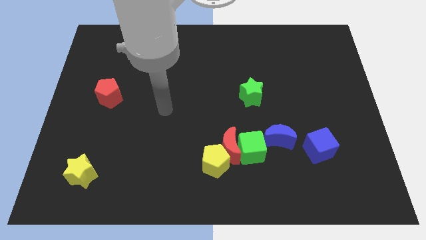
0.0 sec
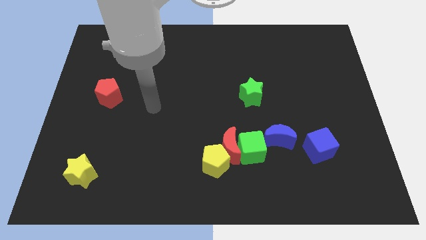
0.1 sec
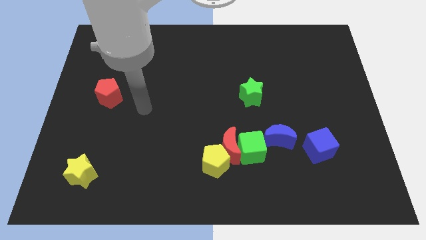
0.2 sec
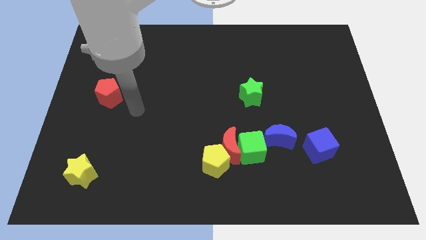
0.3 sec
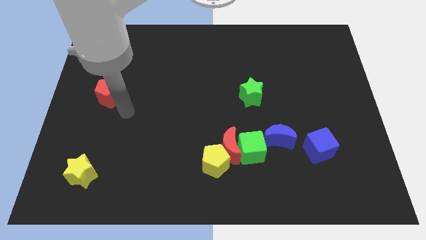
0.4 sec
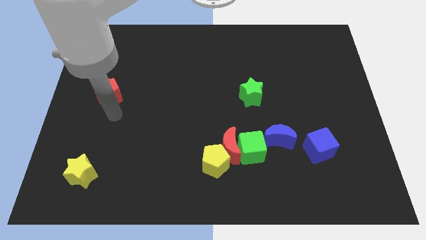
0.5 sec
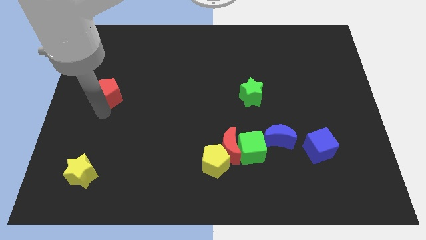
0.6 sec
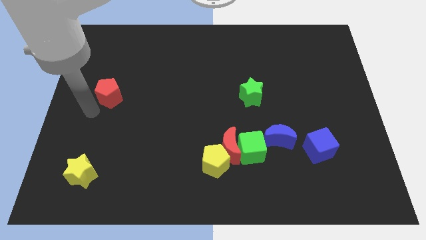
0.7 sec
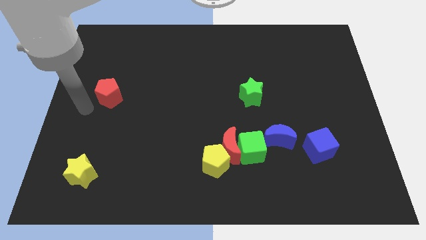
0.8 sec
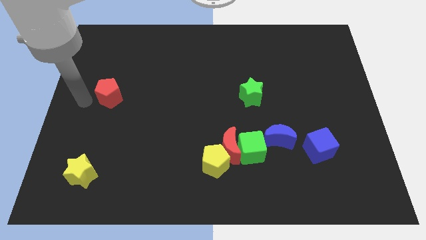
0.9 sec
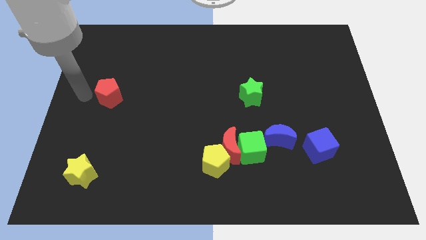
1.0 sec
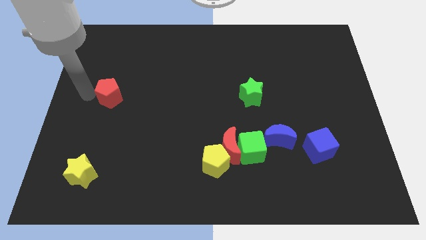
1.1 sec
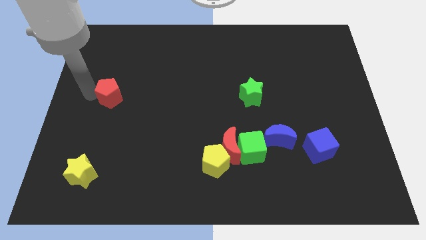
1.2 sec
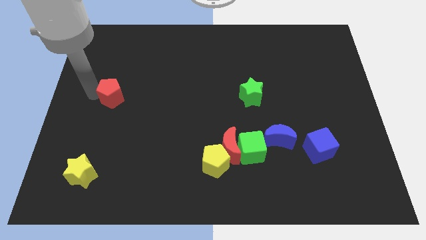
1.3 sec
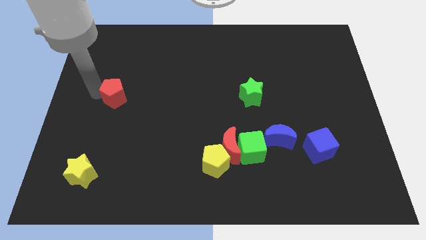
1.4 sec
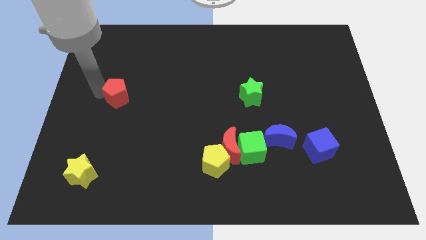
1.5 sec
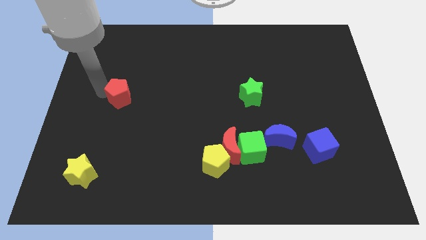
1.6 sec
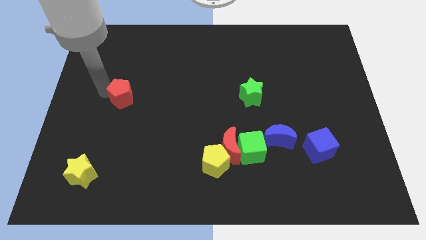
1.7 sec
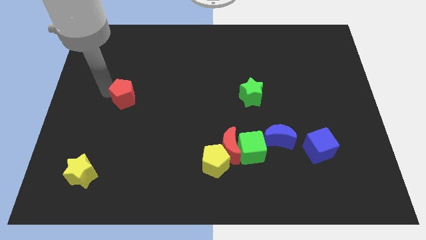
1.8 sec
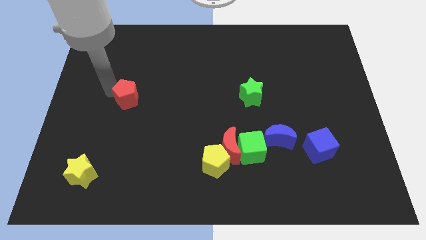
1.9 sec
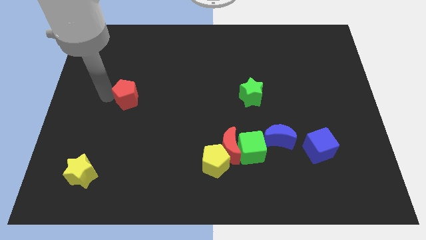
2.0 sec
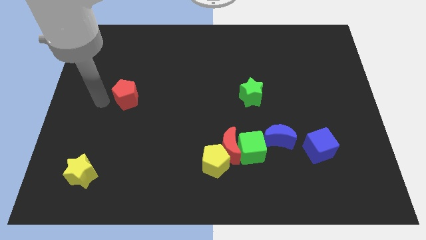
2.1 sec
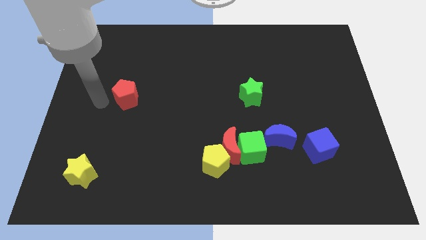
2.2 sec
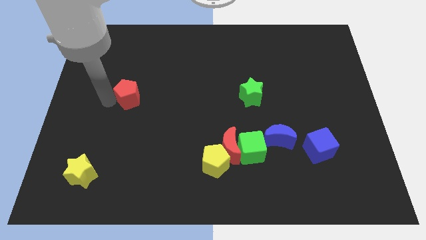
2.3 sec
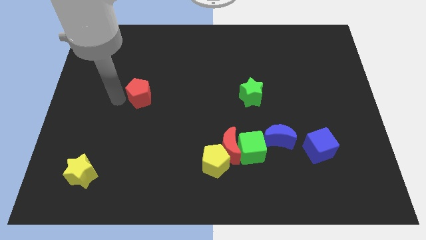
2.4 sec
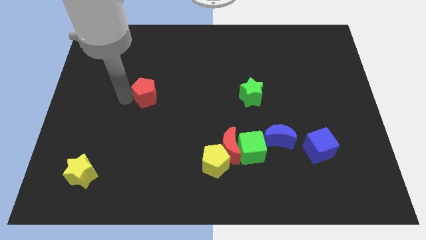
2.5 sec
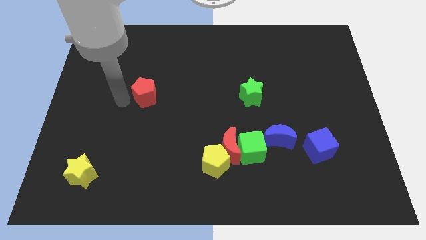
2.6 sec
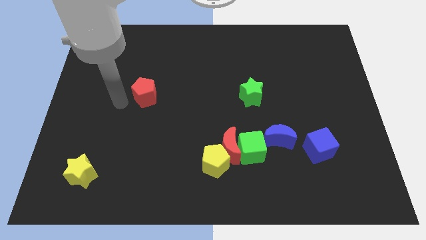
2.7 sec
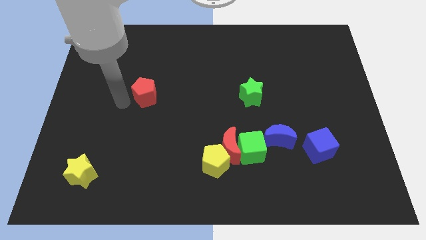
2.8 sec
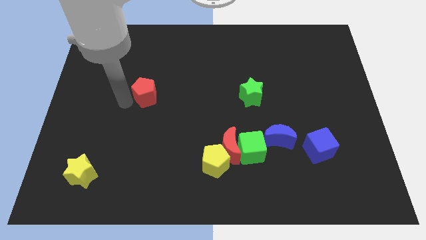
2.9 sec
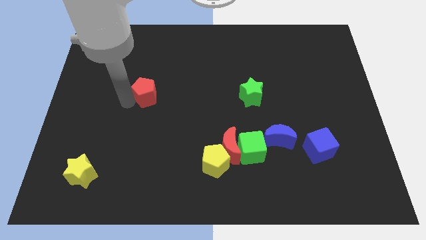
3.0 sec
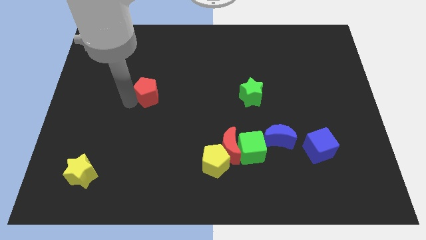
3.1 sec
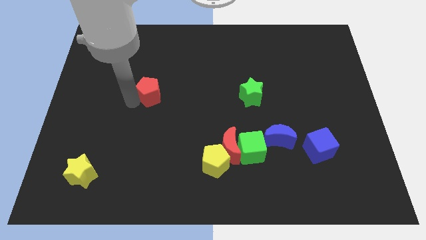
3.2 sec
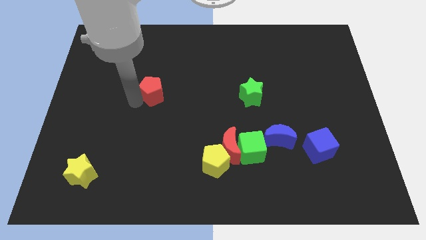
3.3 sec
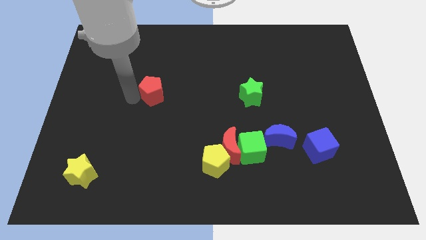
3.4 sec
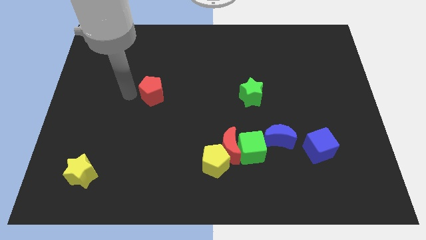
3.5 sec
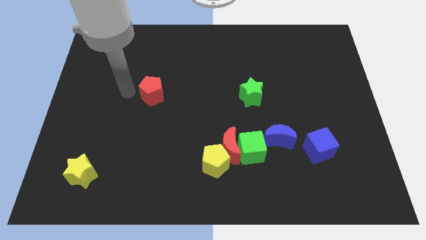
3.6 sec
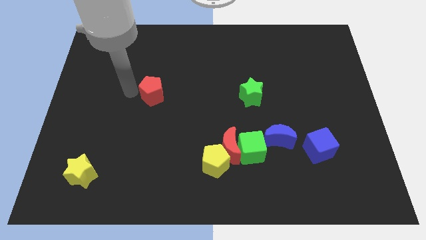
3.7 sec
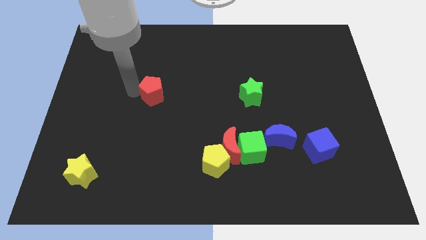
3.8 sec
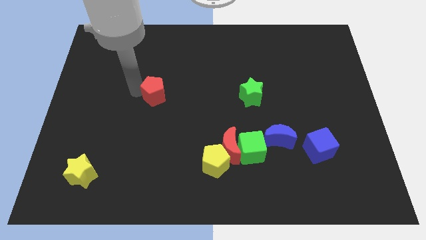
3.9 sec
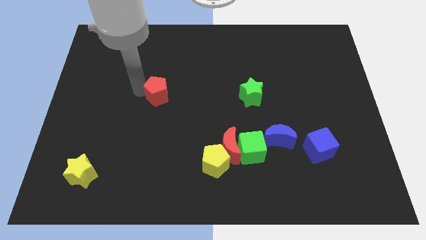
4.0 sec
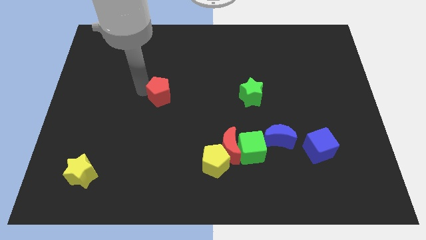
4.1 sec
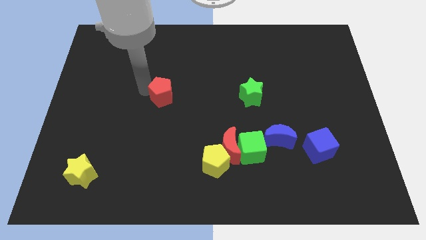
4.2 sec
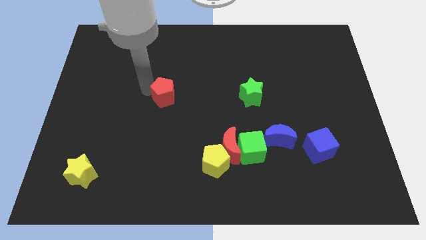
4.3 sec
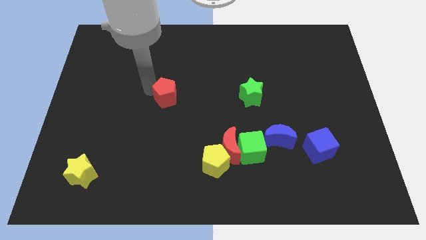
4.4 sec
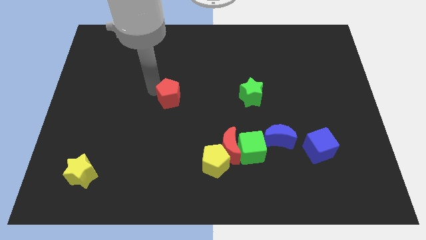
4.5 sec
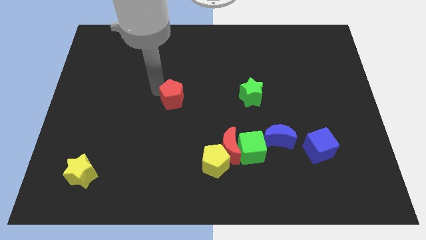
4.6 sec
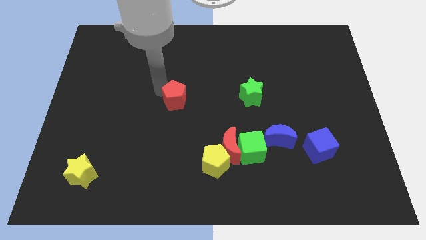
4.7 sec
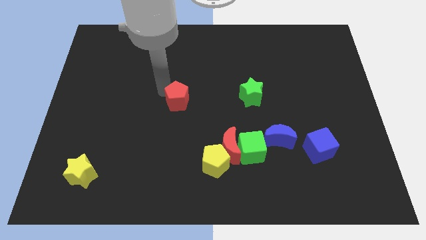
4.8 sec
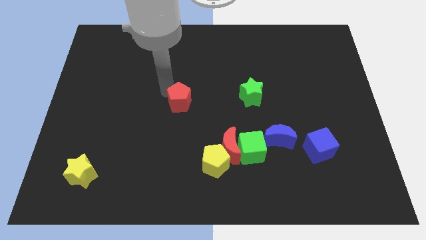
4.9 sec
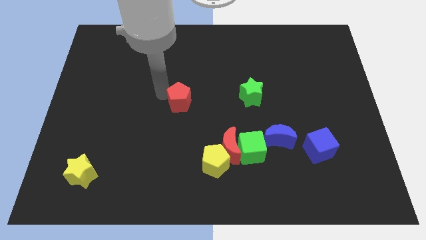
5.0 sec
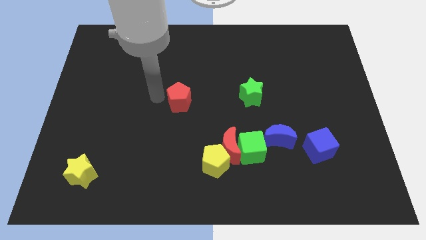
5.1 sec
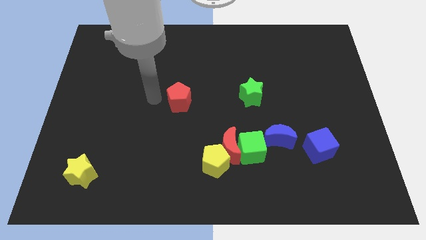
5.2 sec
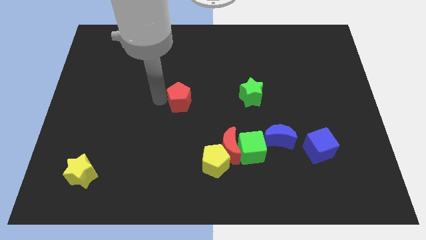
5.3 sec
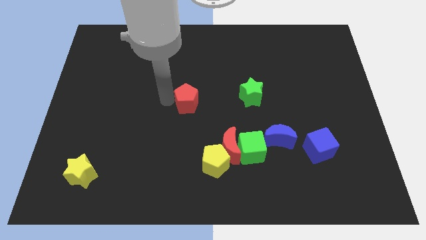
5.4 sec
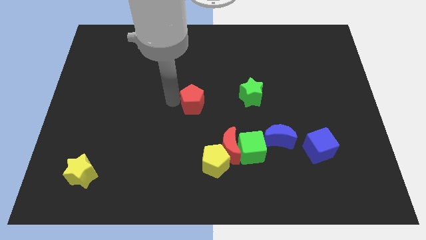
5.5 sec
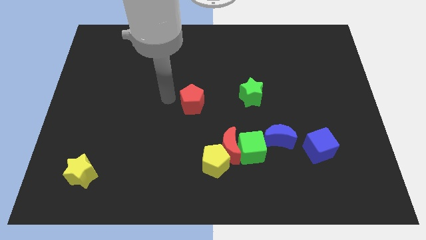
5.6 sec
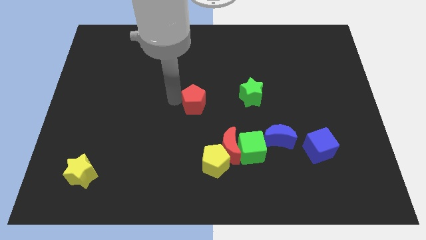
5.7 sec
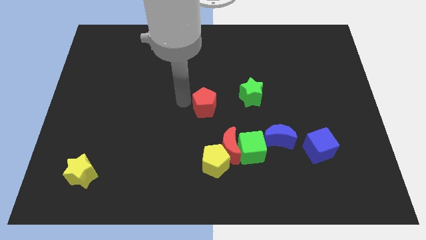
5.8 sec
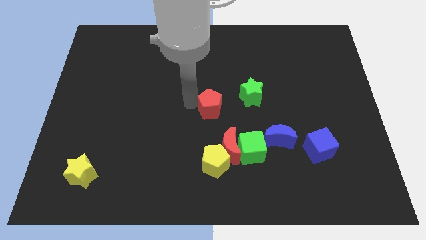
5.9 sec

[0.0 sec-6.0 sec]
slide the red pentagon to the top of the red moon

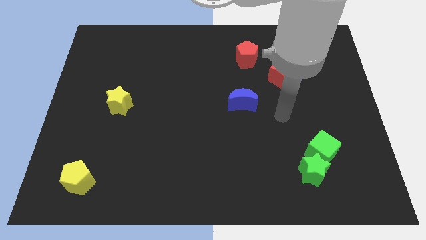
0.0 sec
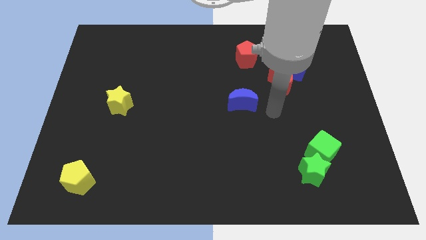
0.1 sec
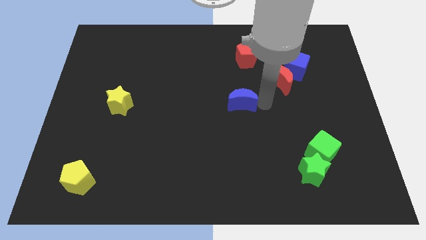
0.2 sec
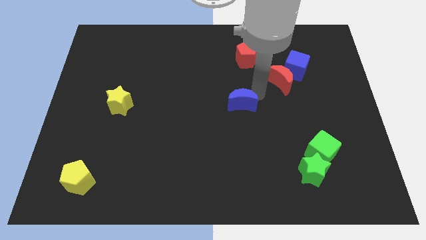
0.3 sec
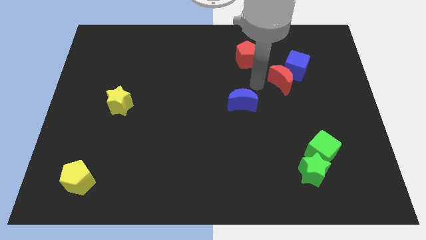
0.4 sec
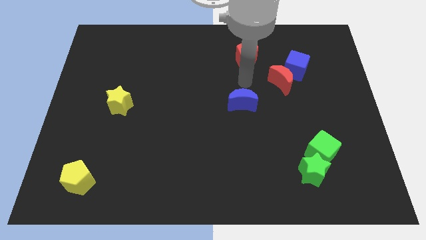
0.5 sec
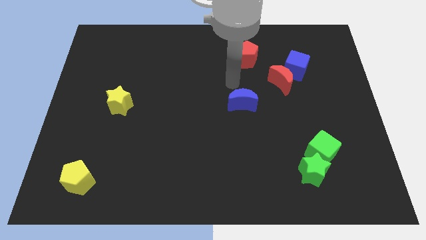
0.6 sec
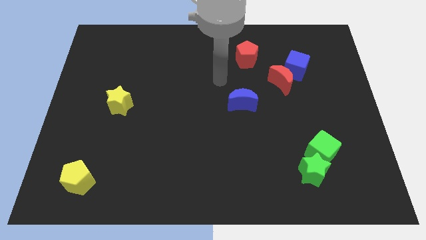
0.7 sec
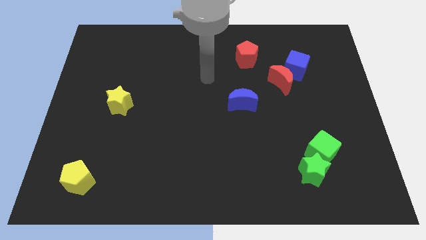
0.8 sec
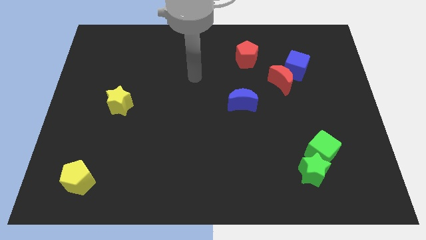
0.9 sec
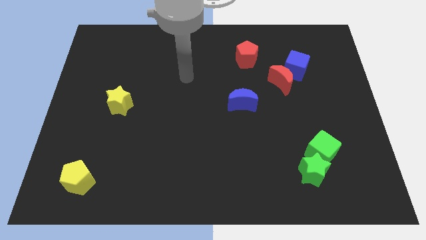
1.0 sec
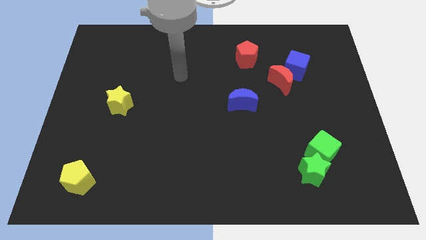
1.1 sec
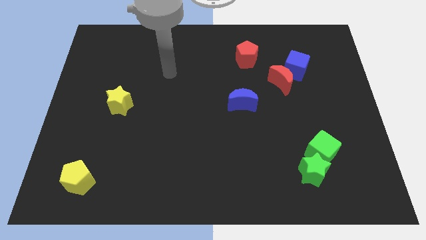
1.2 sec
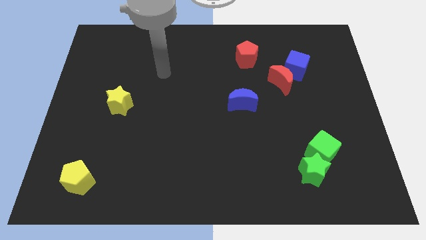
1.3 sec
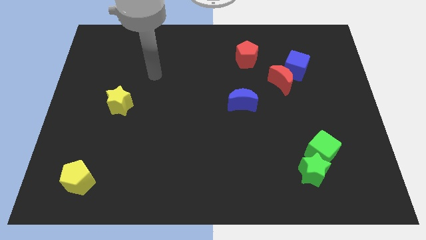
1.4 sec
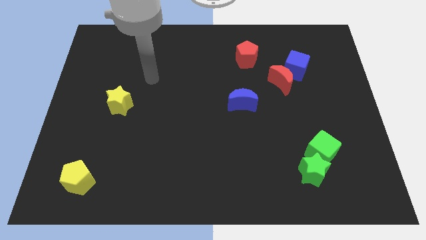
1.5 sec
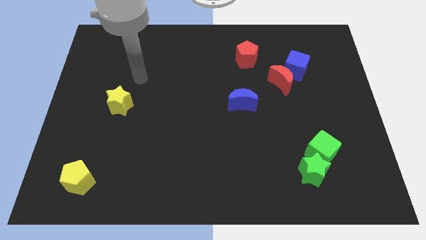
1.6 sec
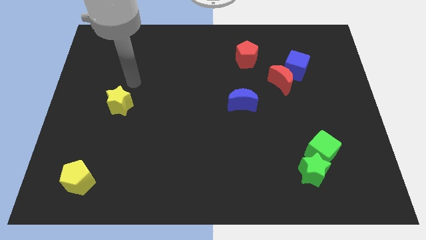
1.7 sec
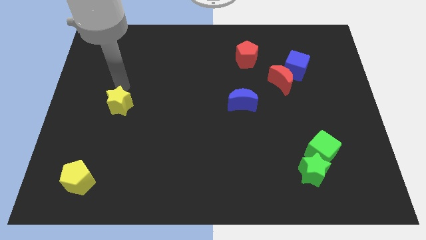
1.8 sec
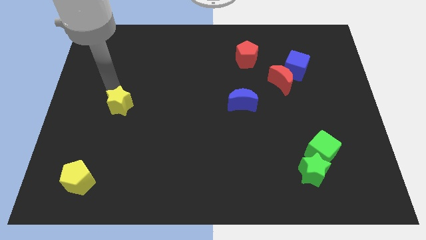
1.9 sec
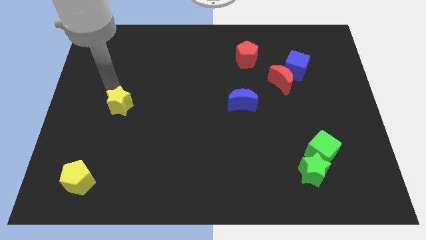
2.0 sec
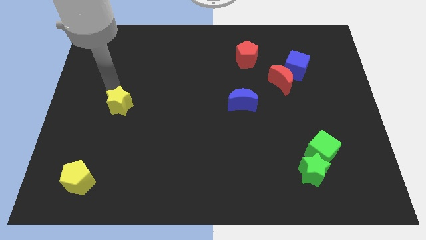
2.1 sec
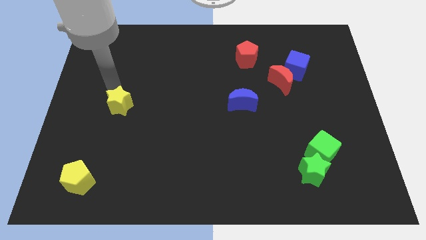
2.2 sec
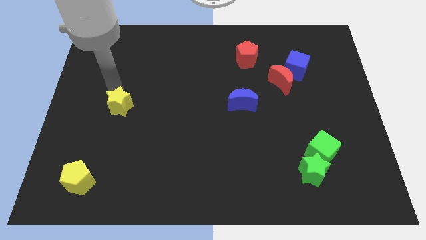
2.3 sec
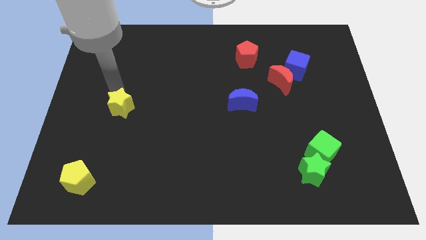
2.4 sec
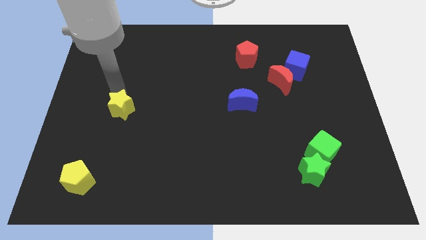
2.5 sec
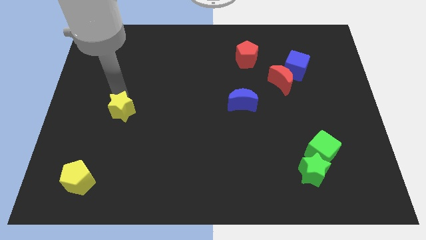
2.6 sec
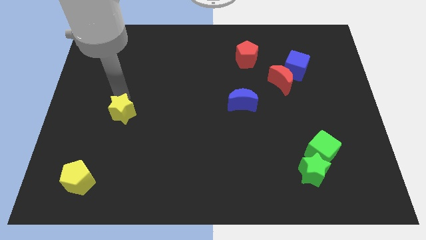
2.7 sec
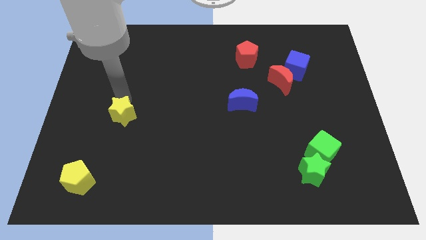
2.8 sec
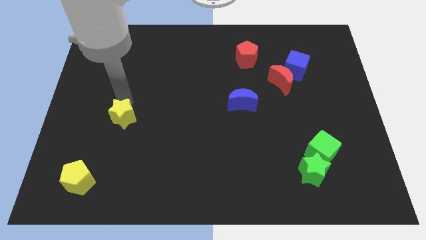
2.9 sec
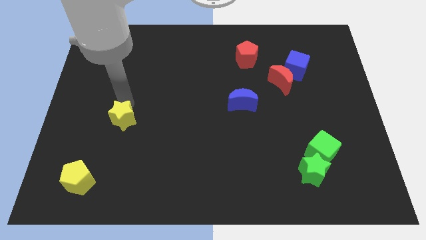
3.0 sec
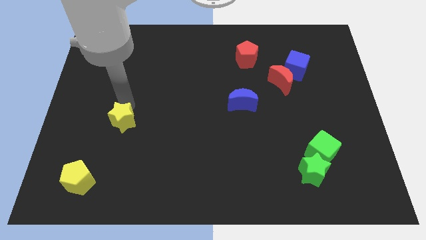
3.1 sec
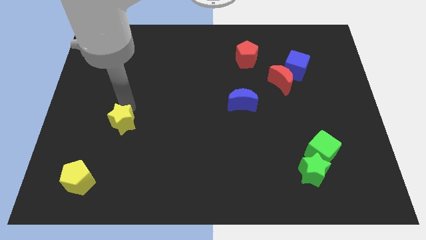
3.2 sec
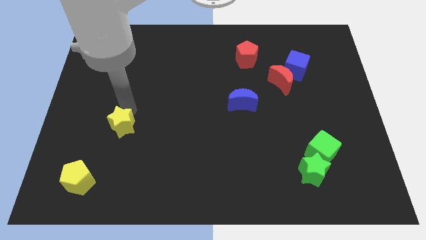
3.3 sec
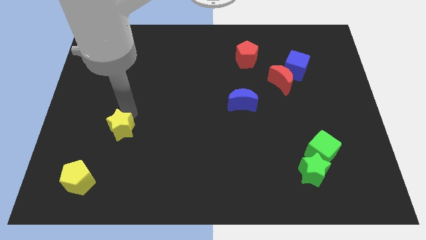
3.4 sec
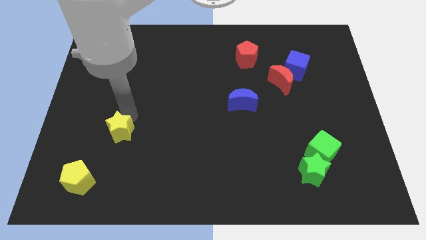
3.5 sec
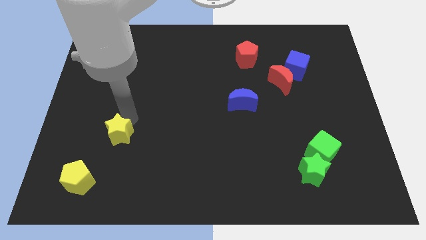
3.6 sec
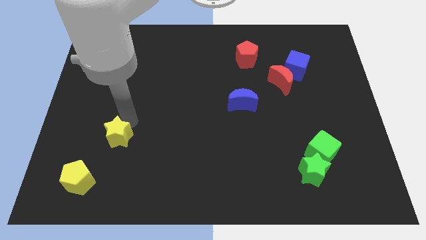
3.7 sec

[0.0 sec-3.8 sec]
put the yellow star to the top right of the yellow pentagon
